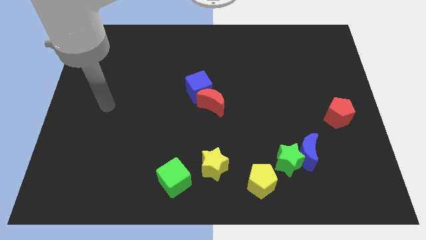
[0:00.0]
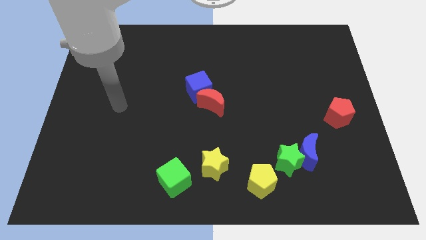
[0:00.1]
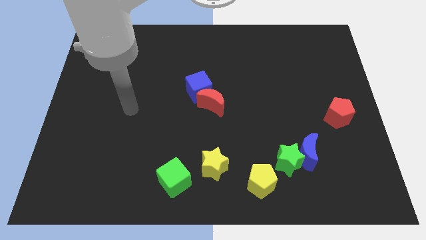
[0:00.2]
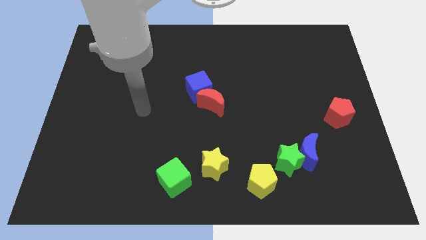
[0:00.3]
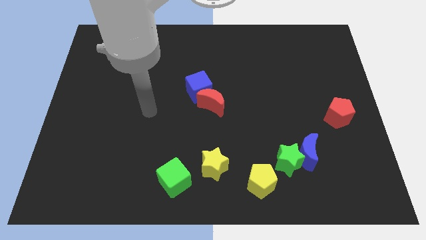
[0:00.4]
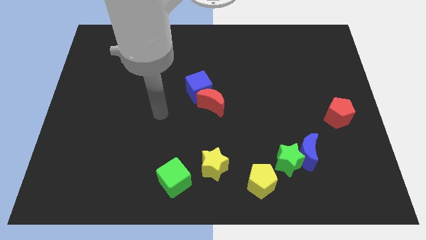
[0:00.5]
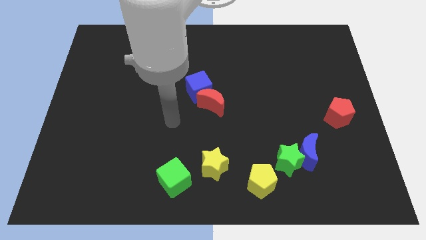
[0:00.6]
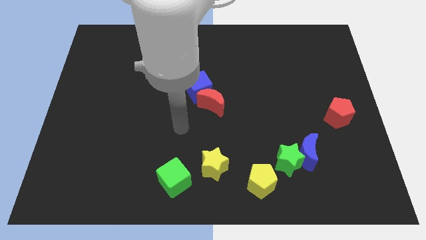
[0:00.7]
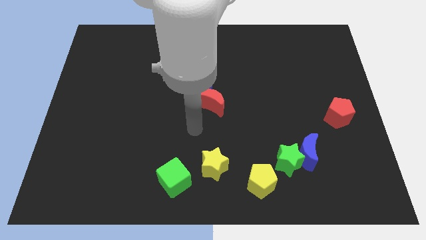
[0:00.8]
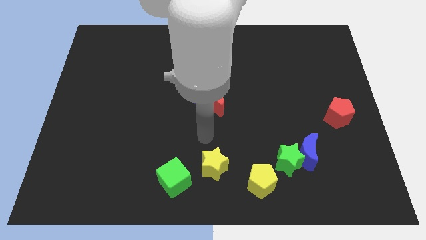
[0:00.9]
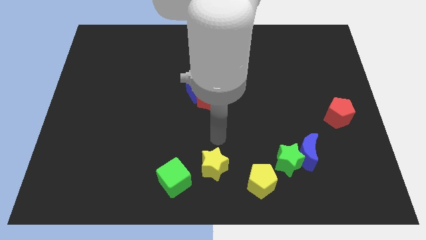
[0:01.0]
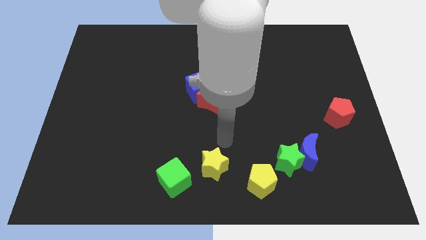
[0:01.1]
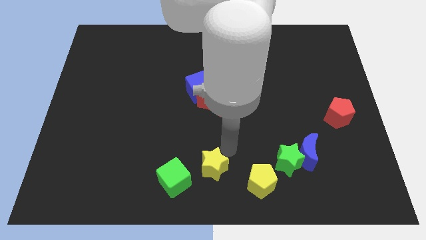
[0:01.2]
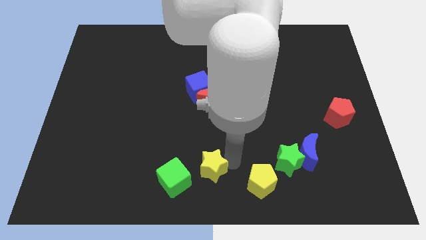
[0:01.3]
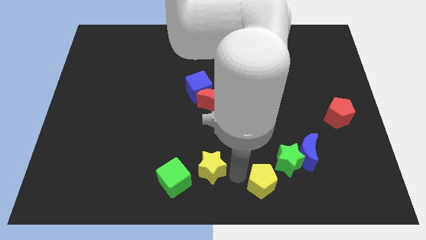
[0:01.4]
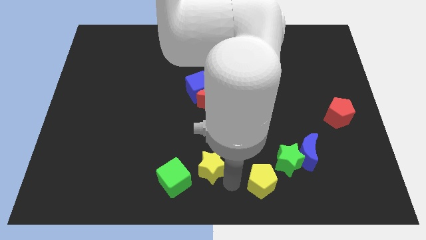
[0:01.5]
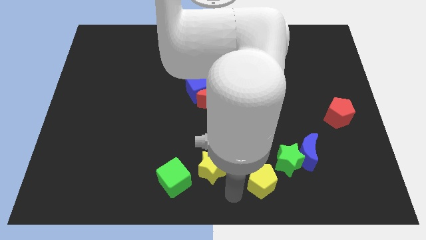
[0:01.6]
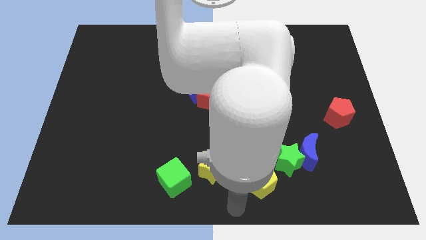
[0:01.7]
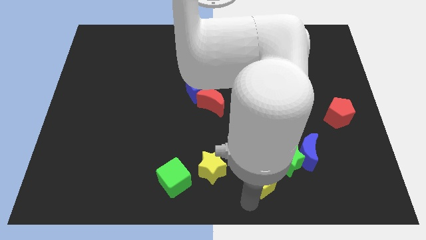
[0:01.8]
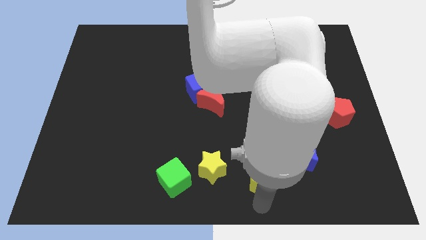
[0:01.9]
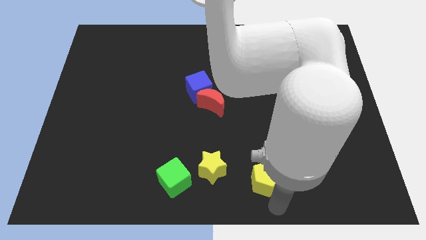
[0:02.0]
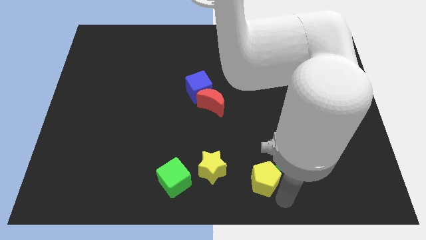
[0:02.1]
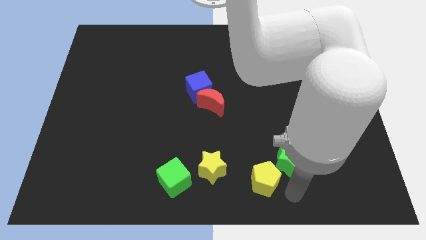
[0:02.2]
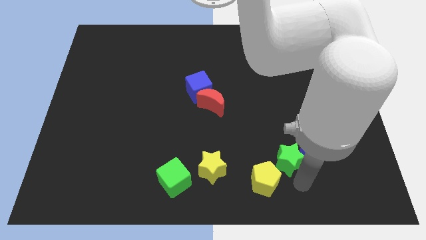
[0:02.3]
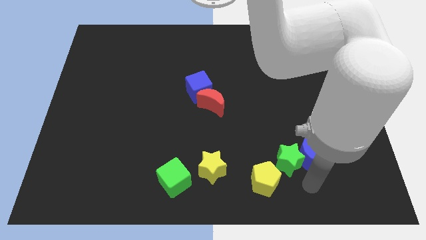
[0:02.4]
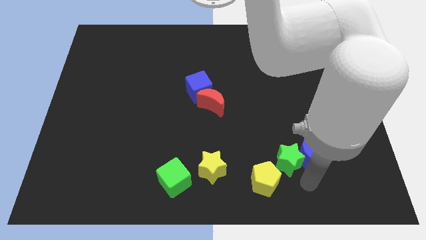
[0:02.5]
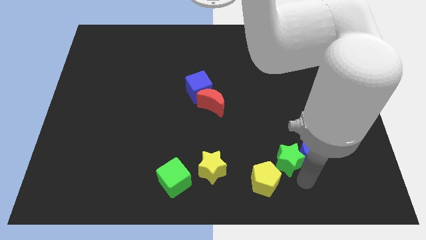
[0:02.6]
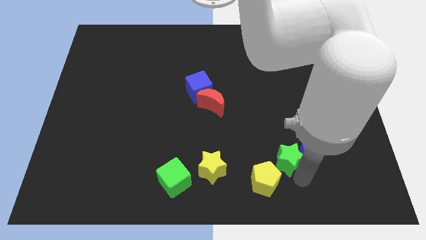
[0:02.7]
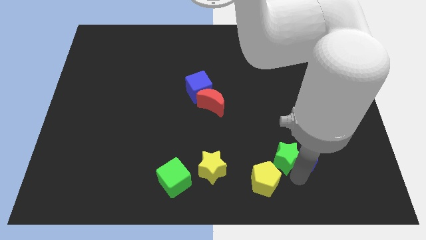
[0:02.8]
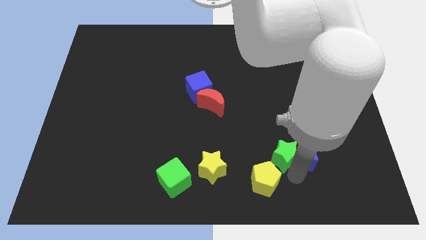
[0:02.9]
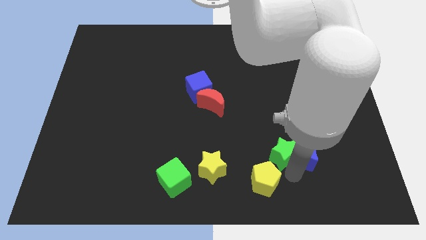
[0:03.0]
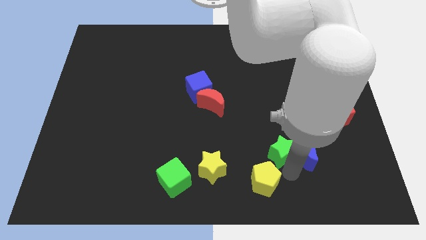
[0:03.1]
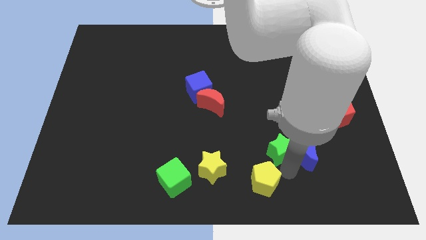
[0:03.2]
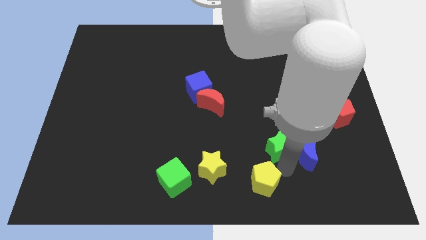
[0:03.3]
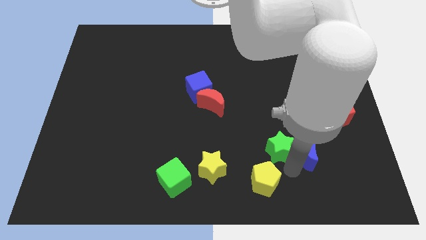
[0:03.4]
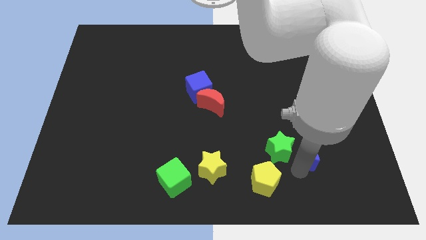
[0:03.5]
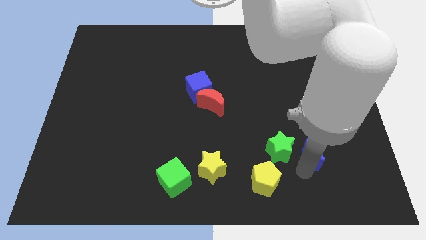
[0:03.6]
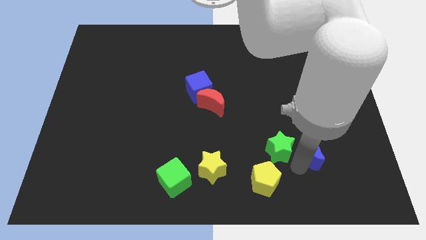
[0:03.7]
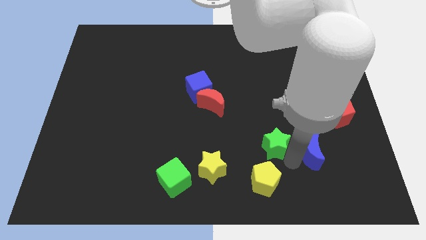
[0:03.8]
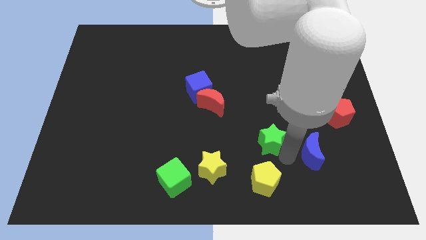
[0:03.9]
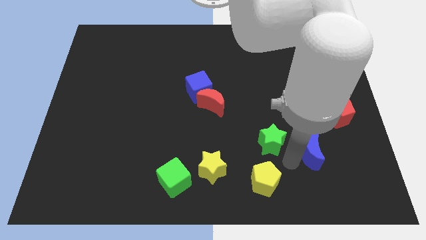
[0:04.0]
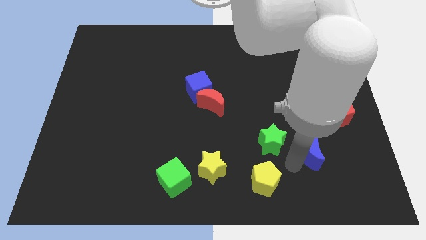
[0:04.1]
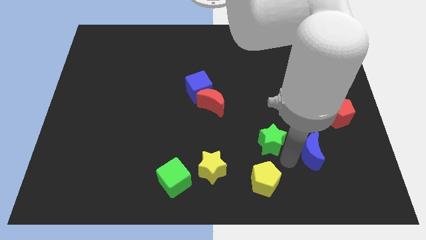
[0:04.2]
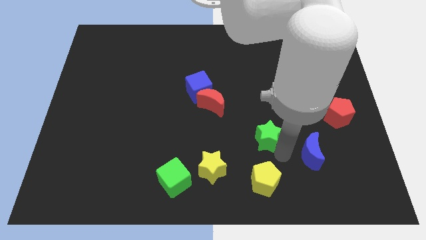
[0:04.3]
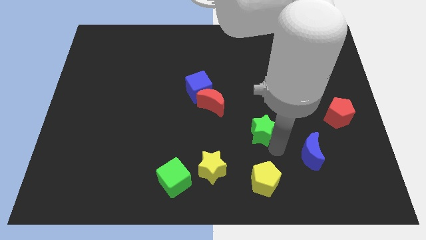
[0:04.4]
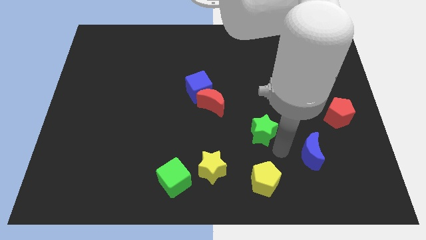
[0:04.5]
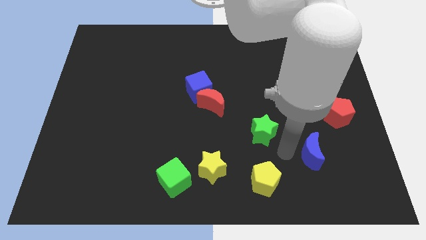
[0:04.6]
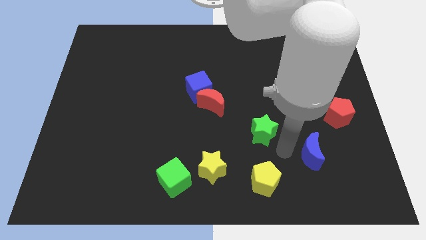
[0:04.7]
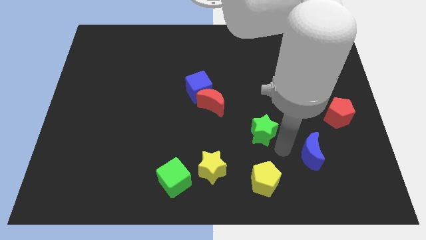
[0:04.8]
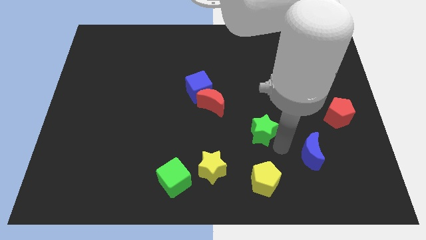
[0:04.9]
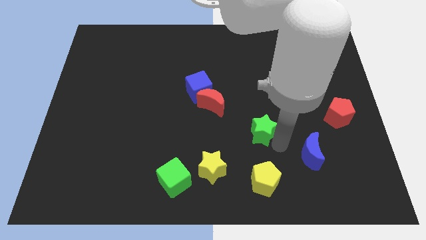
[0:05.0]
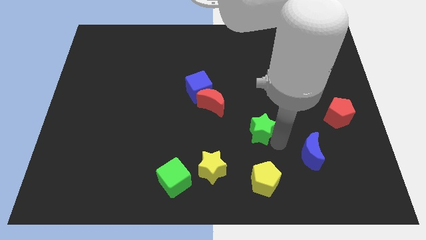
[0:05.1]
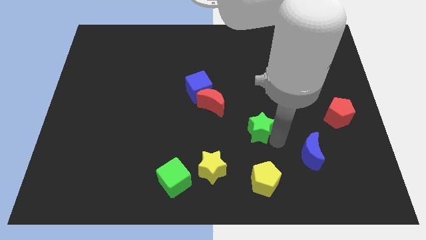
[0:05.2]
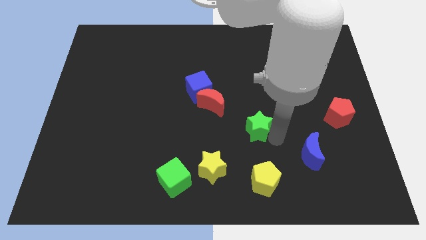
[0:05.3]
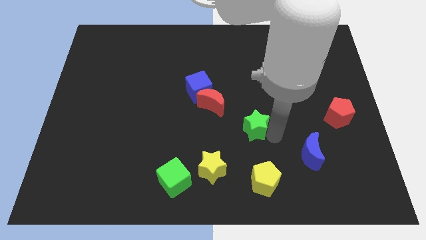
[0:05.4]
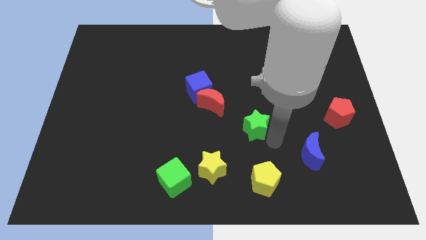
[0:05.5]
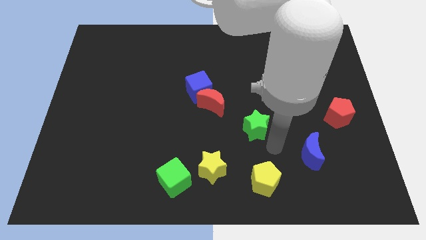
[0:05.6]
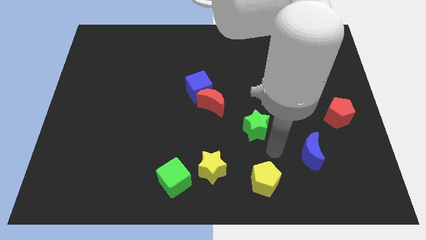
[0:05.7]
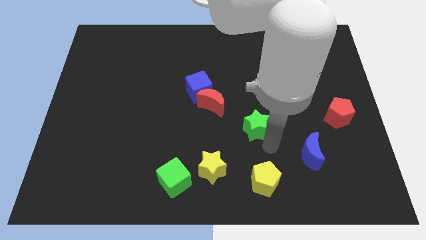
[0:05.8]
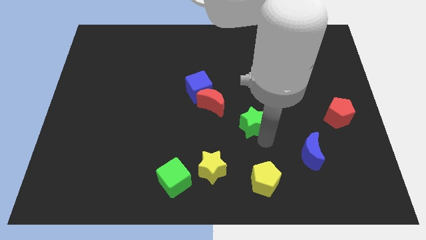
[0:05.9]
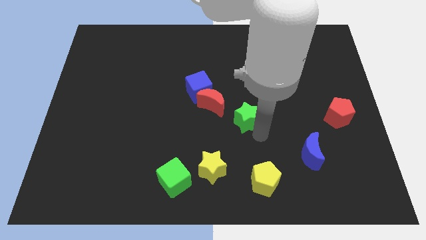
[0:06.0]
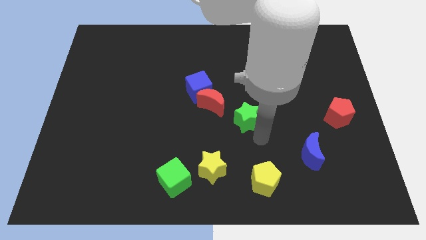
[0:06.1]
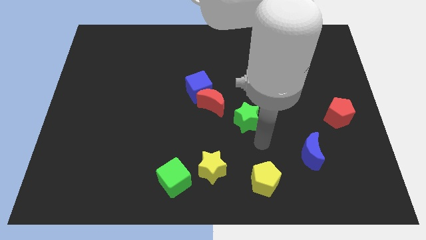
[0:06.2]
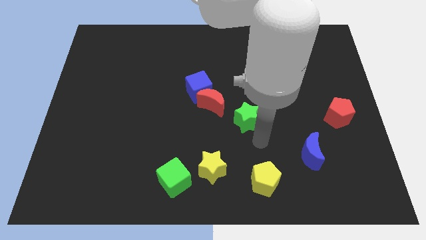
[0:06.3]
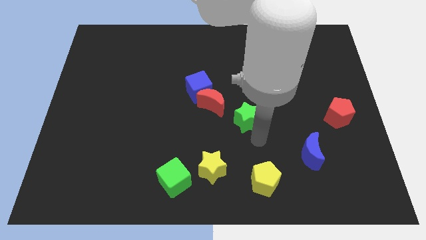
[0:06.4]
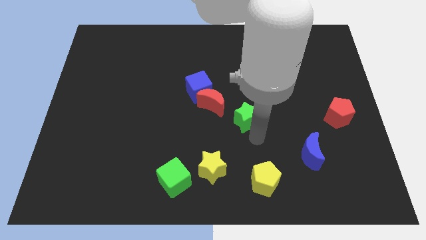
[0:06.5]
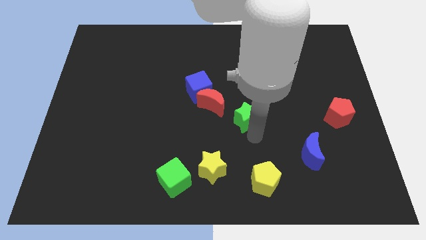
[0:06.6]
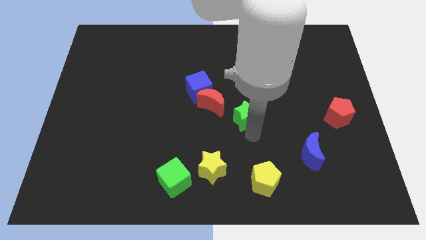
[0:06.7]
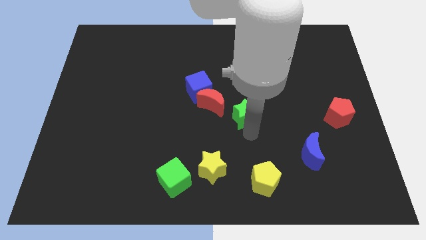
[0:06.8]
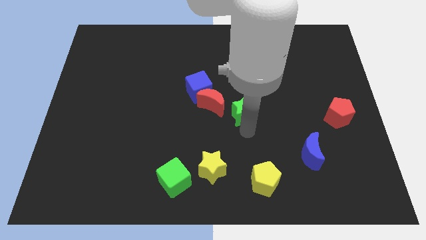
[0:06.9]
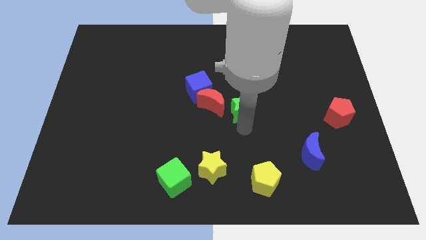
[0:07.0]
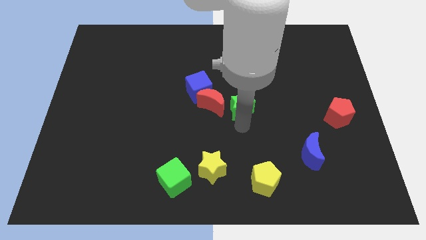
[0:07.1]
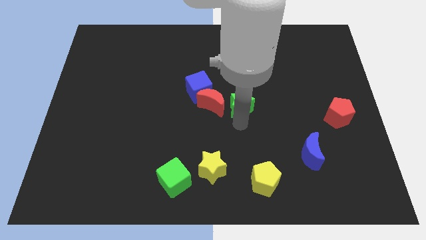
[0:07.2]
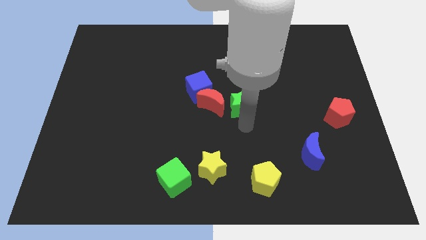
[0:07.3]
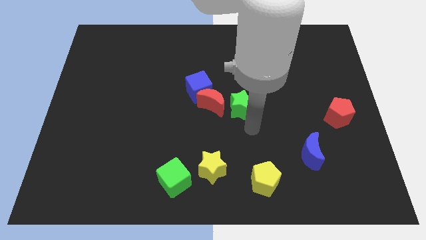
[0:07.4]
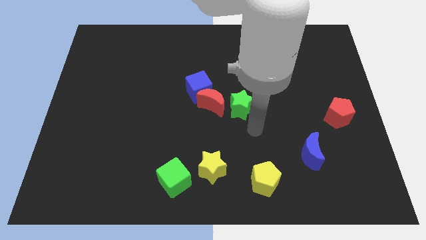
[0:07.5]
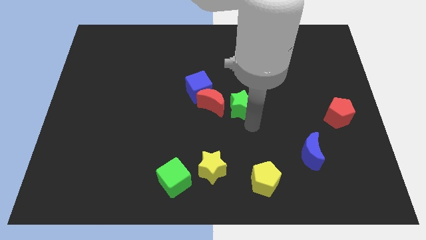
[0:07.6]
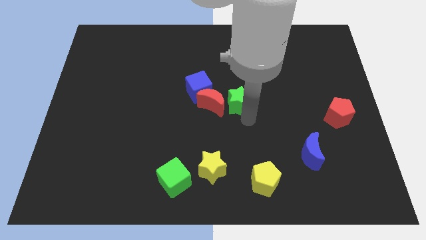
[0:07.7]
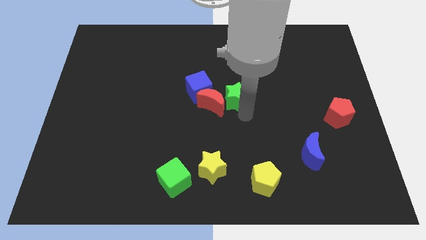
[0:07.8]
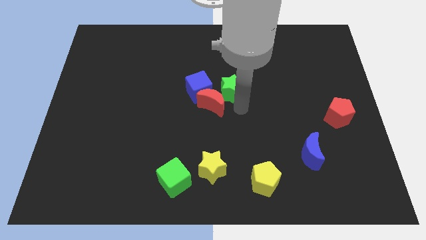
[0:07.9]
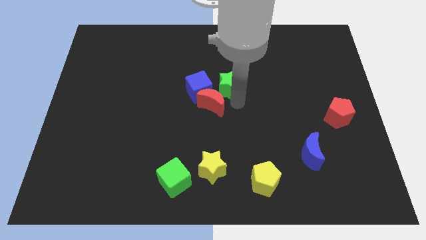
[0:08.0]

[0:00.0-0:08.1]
move the green star to the top right side of the blue cube
